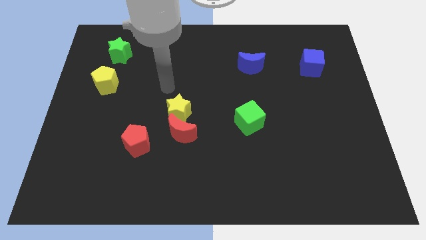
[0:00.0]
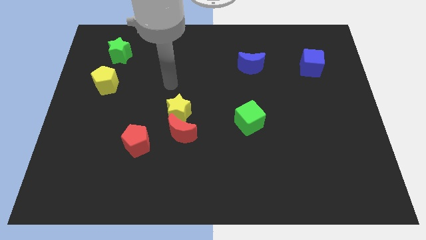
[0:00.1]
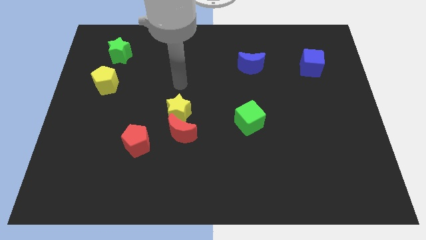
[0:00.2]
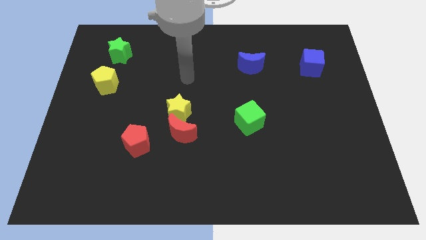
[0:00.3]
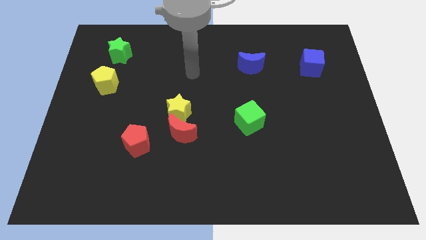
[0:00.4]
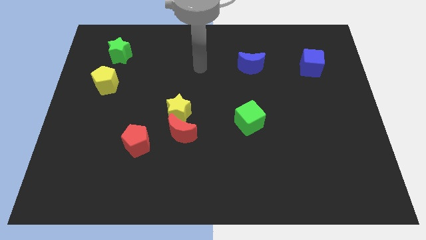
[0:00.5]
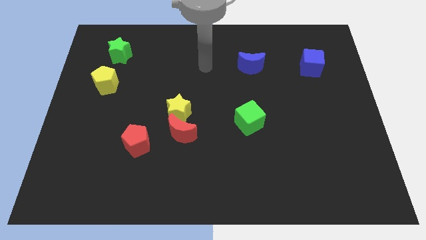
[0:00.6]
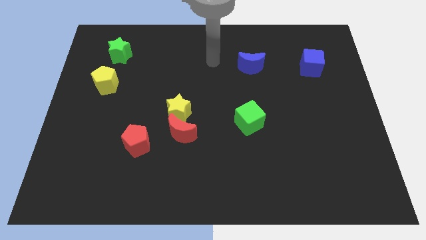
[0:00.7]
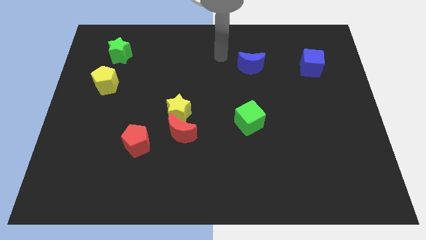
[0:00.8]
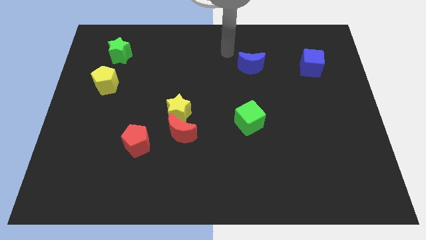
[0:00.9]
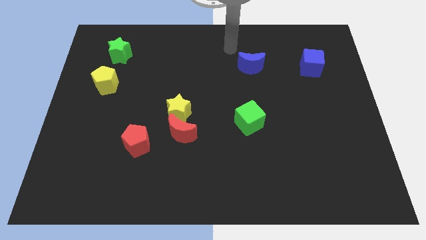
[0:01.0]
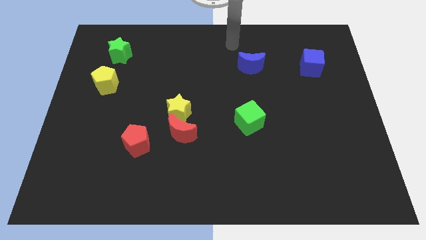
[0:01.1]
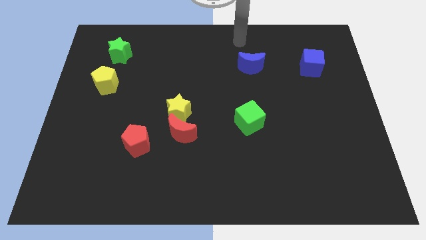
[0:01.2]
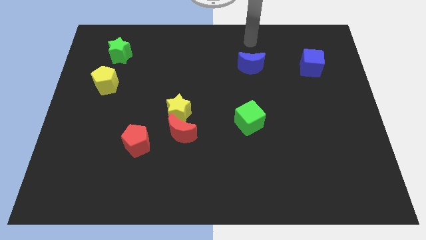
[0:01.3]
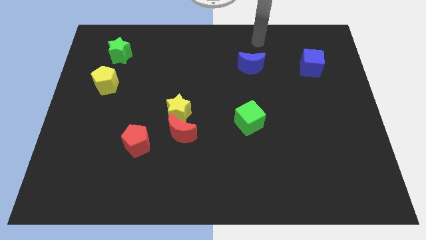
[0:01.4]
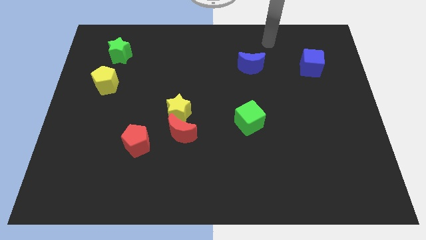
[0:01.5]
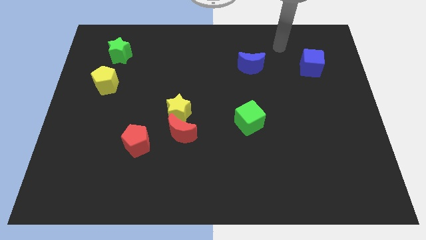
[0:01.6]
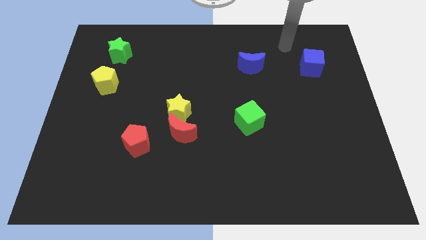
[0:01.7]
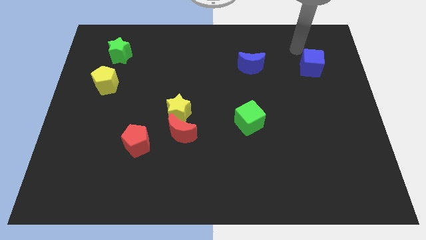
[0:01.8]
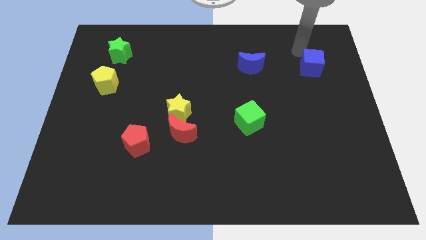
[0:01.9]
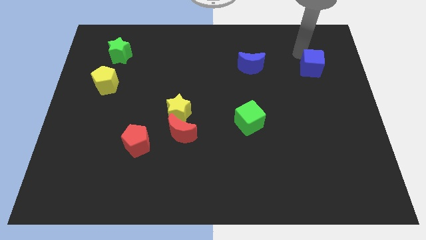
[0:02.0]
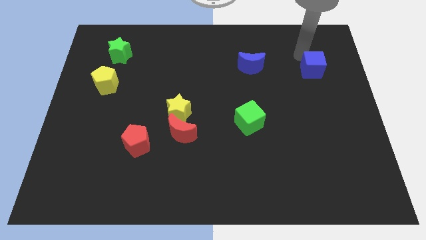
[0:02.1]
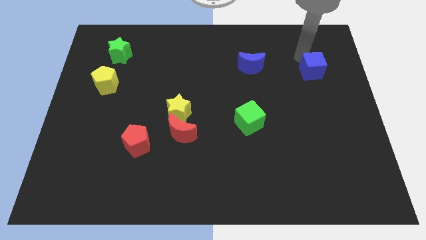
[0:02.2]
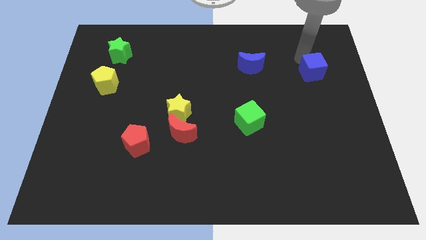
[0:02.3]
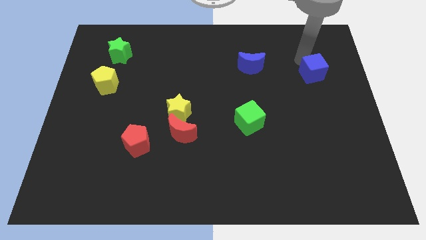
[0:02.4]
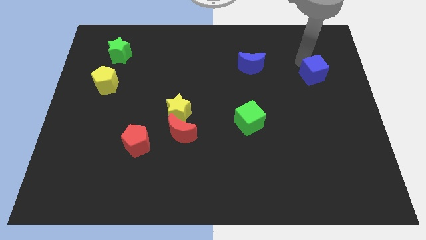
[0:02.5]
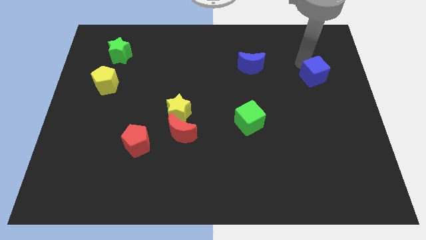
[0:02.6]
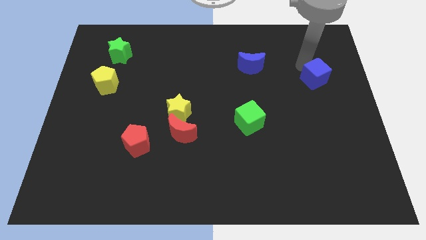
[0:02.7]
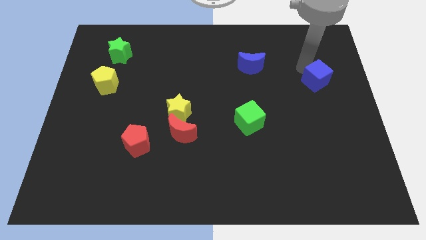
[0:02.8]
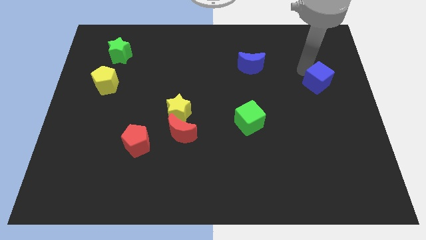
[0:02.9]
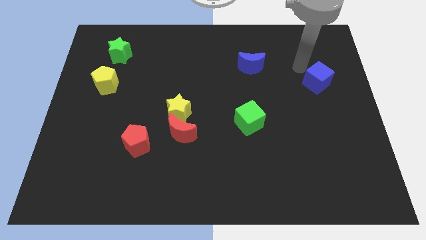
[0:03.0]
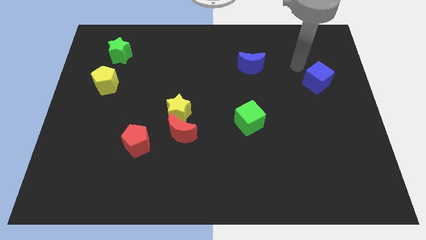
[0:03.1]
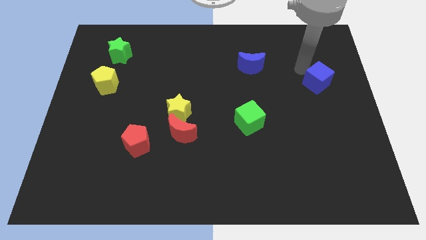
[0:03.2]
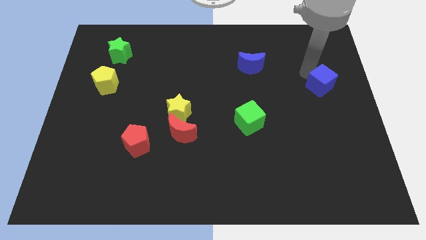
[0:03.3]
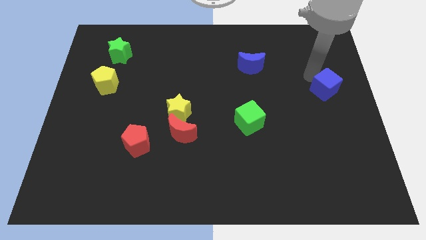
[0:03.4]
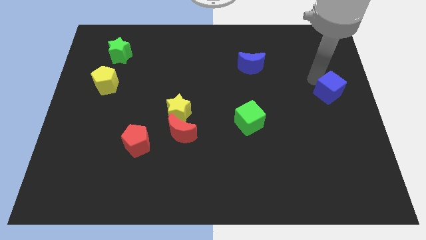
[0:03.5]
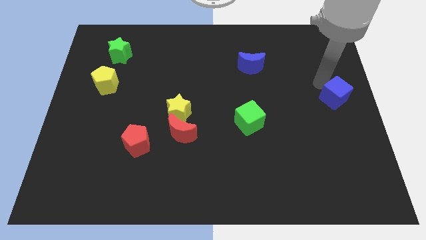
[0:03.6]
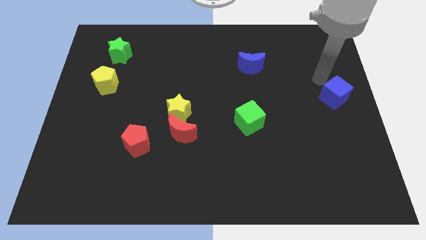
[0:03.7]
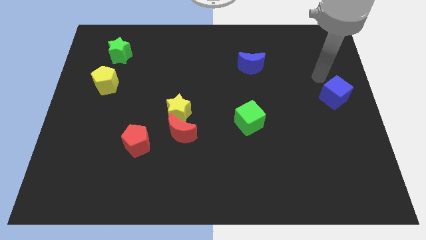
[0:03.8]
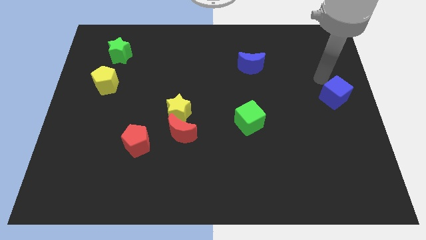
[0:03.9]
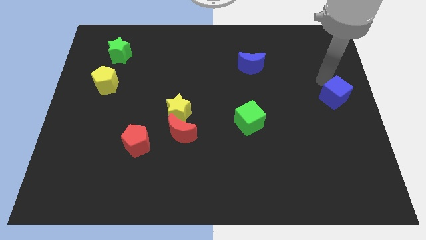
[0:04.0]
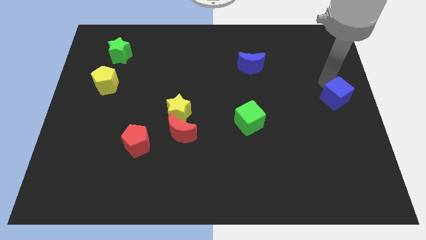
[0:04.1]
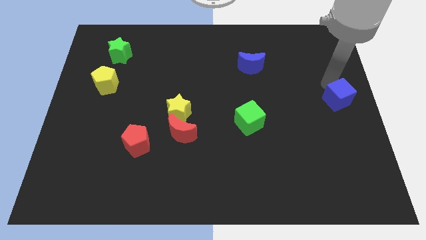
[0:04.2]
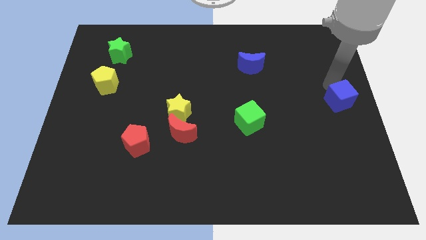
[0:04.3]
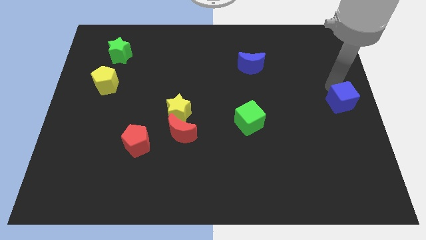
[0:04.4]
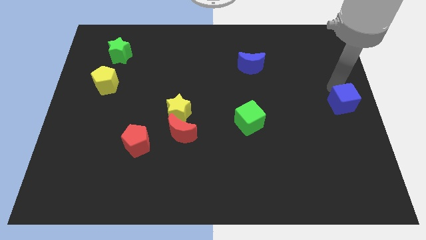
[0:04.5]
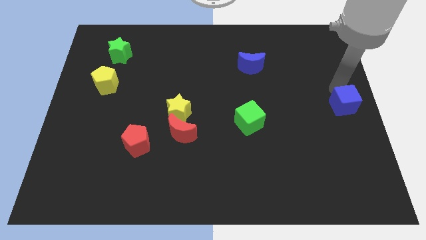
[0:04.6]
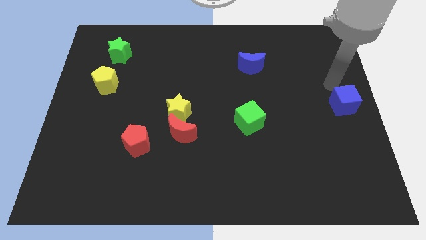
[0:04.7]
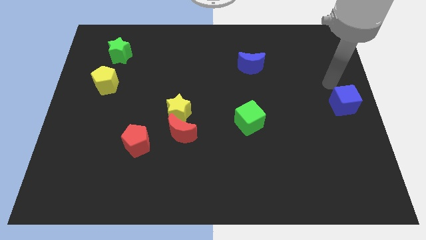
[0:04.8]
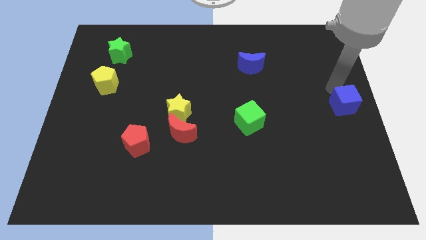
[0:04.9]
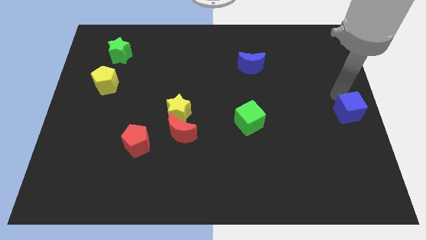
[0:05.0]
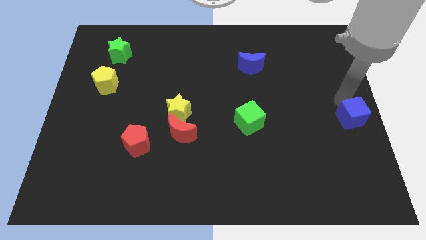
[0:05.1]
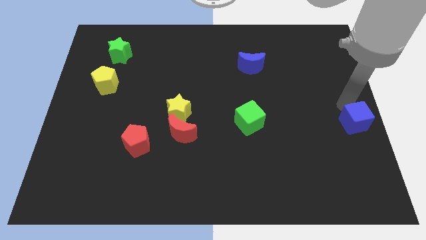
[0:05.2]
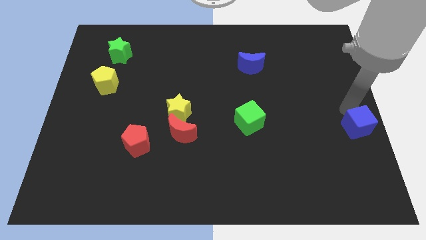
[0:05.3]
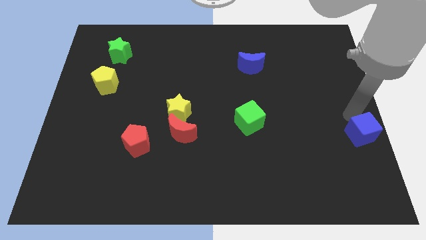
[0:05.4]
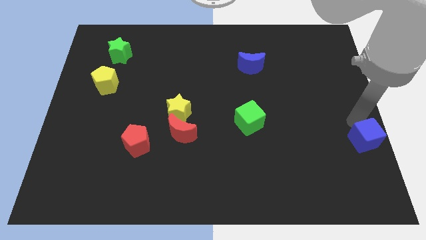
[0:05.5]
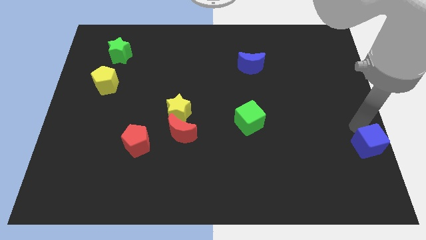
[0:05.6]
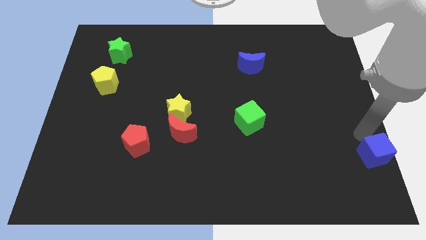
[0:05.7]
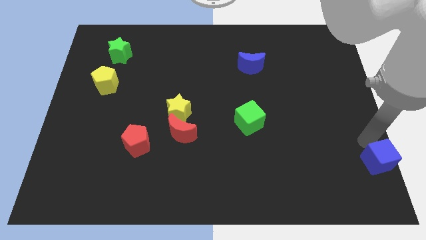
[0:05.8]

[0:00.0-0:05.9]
put the blue cube to the lower right corner
